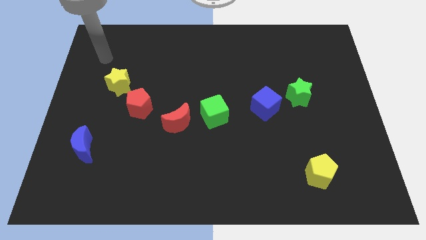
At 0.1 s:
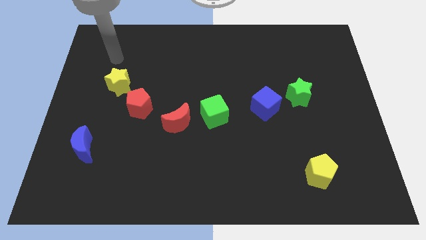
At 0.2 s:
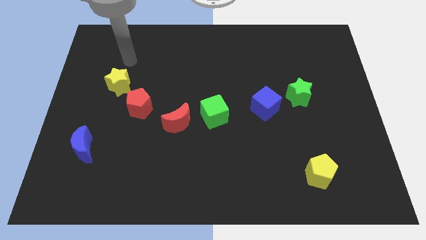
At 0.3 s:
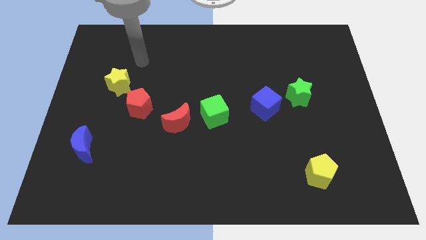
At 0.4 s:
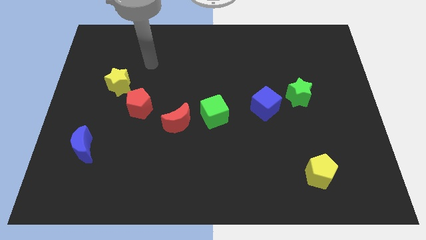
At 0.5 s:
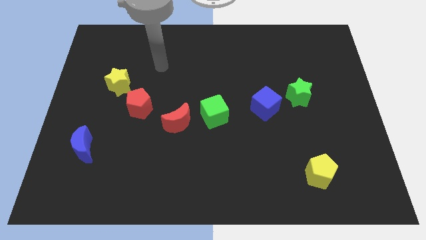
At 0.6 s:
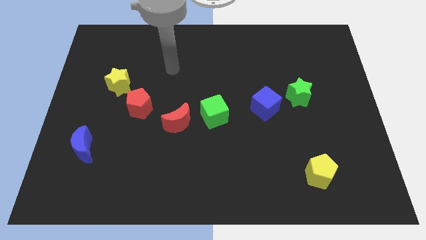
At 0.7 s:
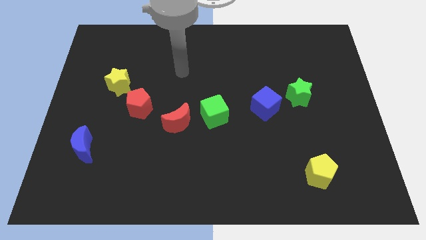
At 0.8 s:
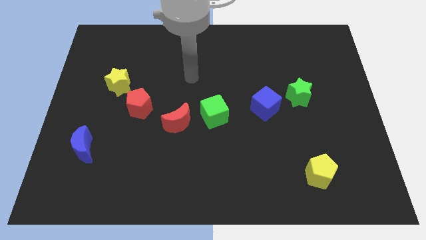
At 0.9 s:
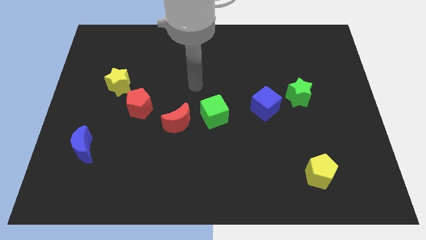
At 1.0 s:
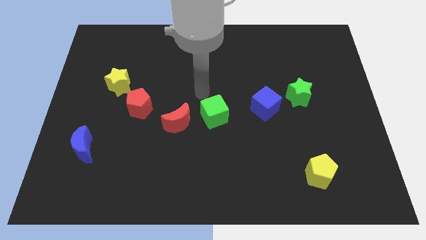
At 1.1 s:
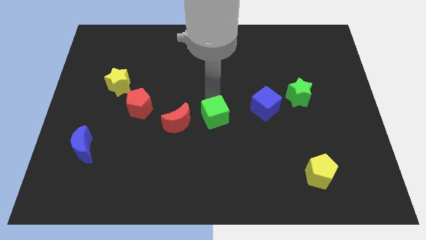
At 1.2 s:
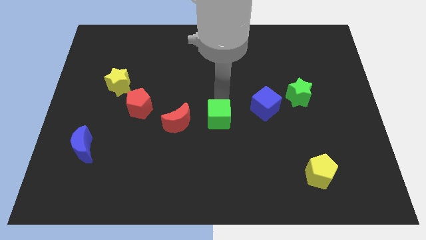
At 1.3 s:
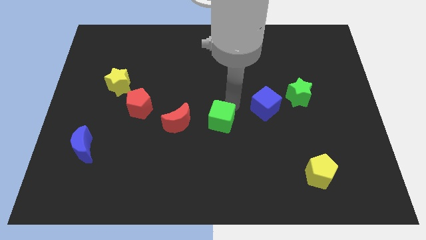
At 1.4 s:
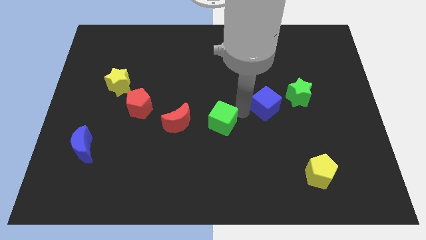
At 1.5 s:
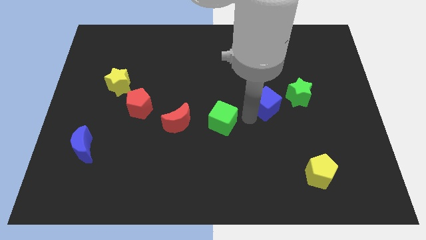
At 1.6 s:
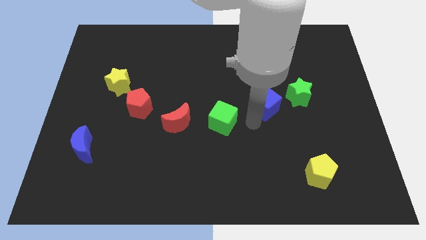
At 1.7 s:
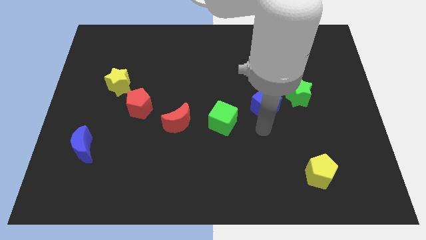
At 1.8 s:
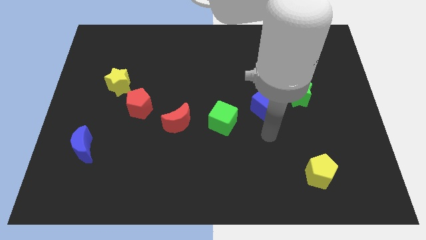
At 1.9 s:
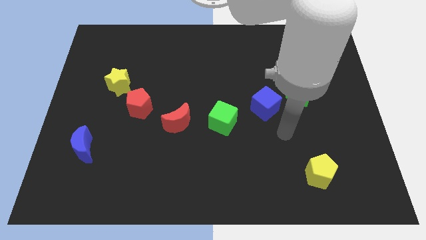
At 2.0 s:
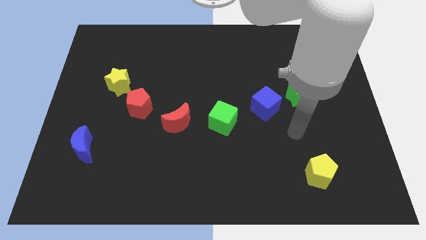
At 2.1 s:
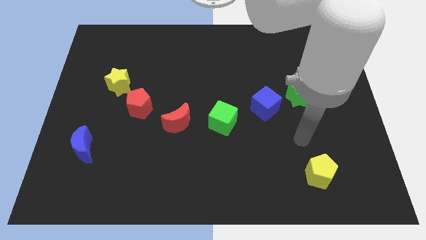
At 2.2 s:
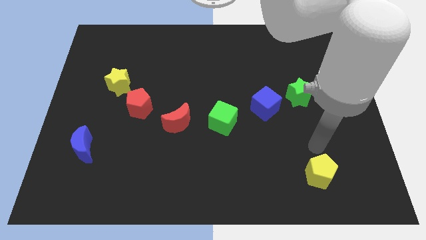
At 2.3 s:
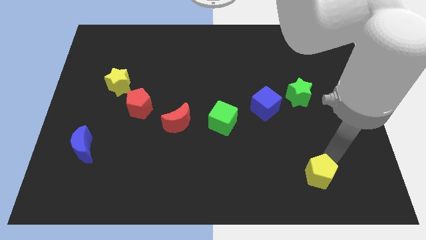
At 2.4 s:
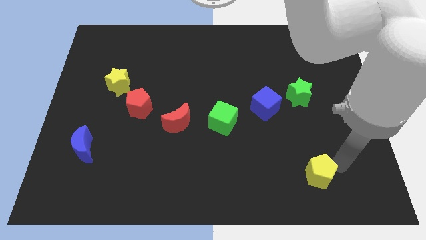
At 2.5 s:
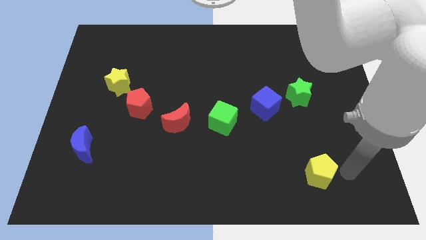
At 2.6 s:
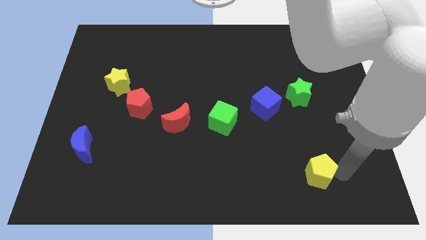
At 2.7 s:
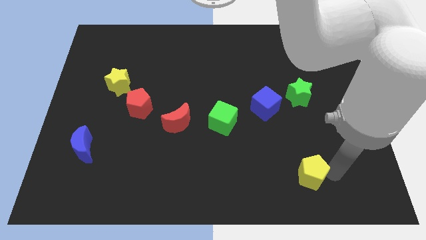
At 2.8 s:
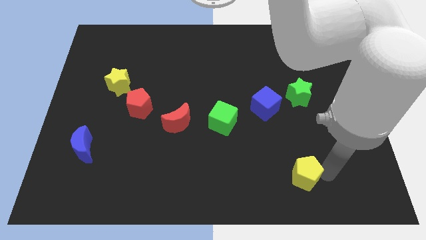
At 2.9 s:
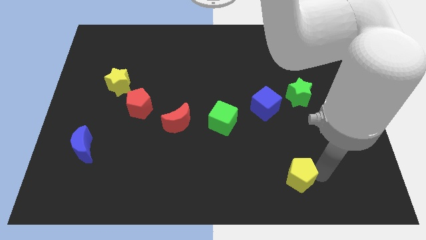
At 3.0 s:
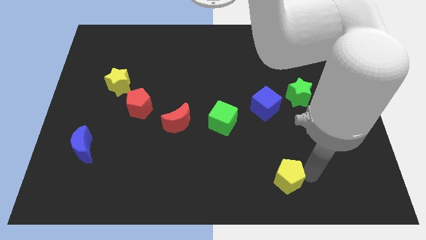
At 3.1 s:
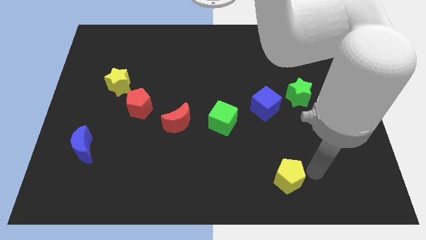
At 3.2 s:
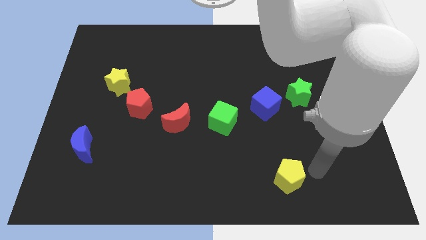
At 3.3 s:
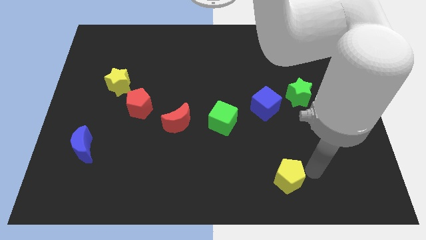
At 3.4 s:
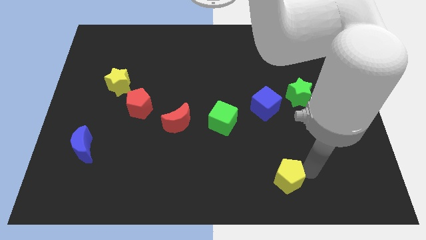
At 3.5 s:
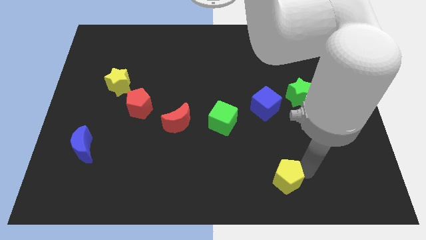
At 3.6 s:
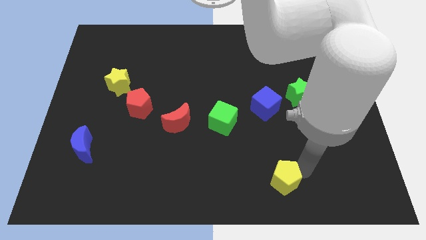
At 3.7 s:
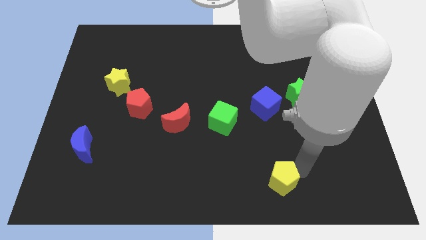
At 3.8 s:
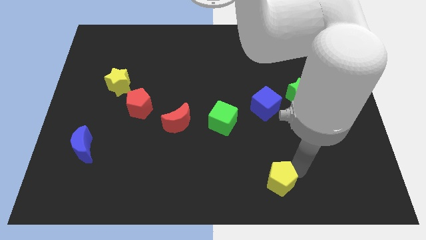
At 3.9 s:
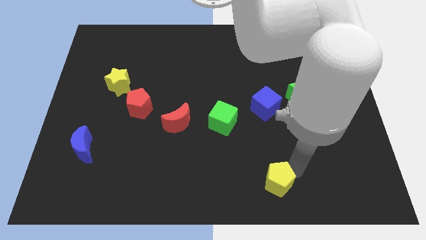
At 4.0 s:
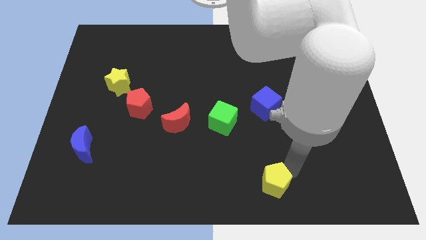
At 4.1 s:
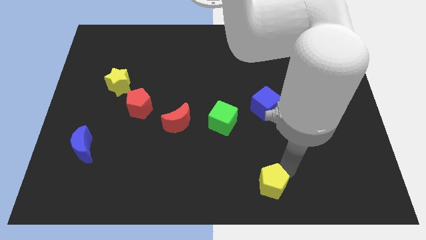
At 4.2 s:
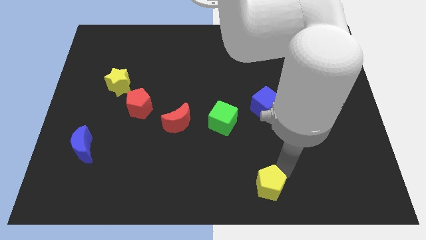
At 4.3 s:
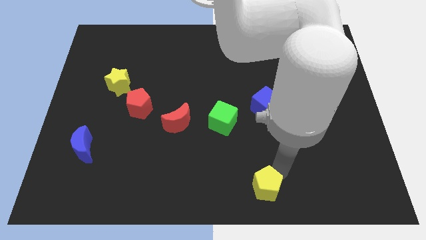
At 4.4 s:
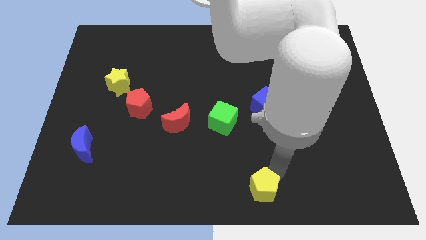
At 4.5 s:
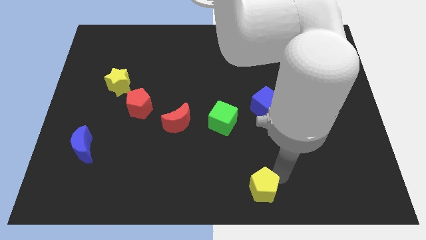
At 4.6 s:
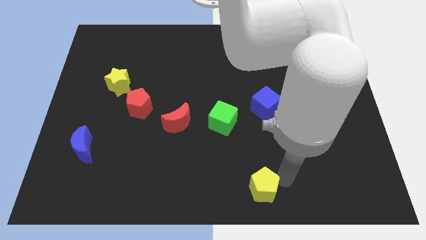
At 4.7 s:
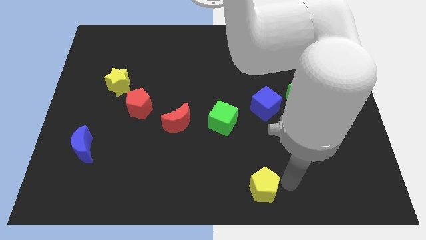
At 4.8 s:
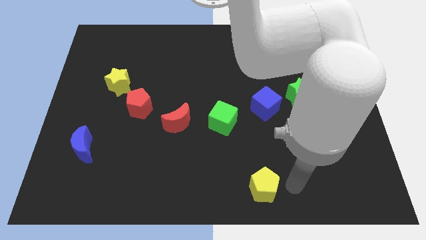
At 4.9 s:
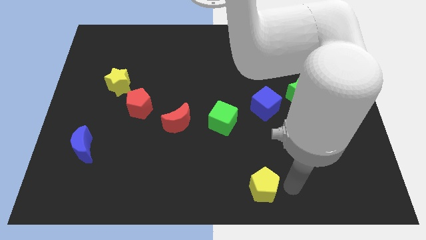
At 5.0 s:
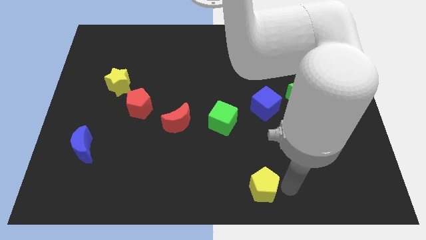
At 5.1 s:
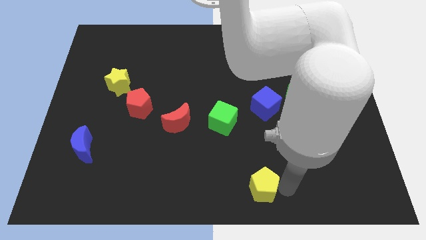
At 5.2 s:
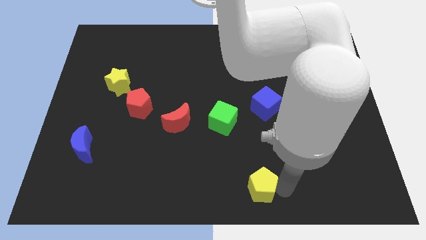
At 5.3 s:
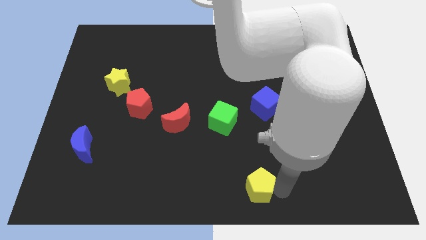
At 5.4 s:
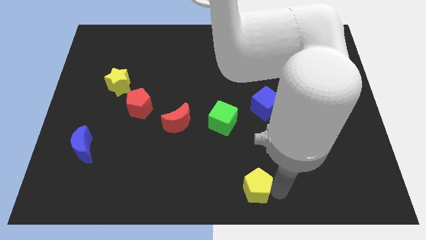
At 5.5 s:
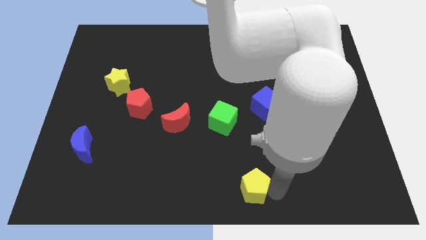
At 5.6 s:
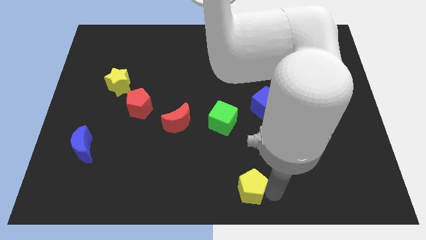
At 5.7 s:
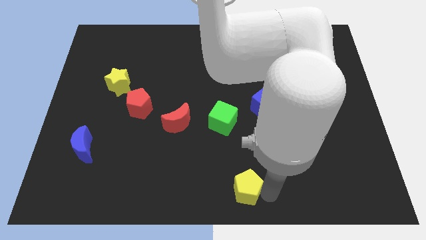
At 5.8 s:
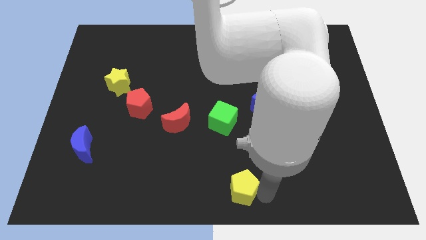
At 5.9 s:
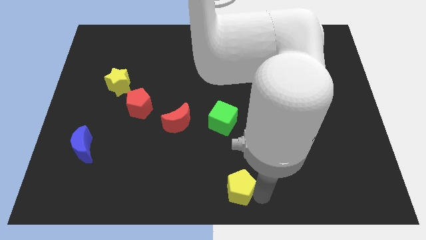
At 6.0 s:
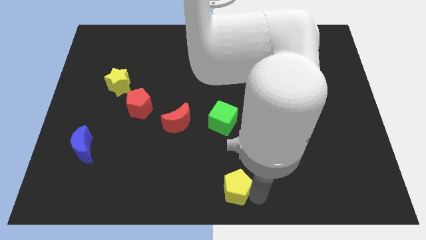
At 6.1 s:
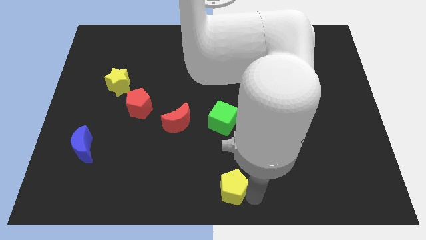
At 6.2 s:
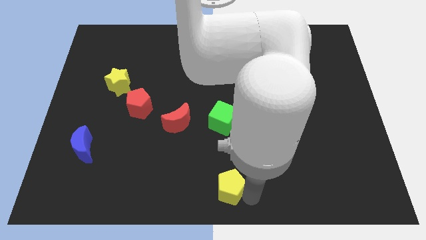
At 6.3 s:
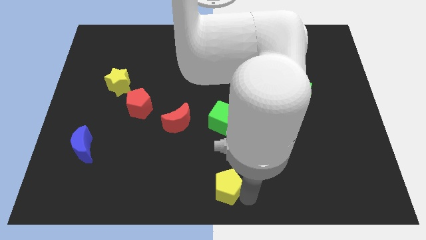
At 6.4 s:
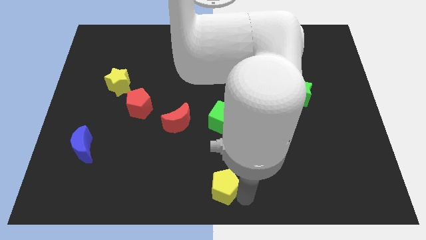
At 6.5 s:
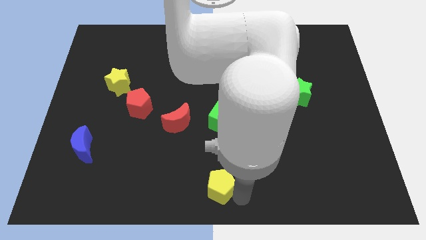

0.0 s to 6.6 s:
push the yellow pentagon left

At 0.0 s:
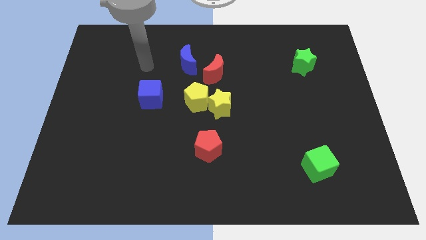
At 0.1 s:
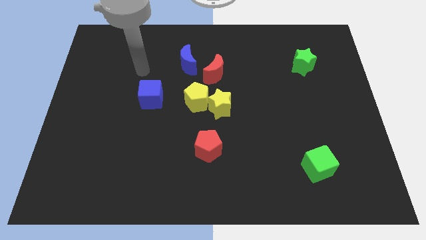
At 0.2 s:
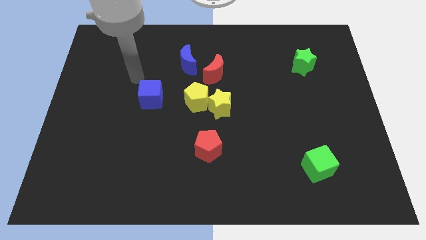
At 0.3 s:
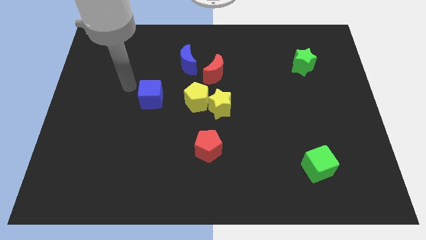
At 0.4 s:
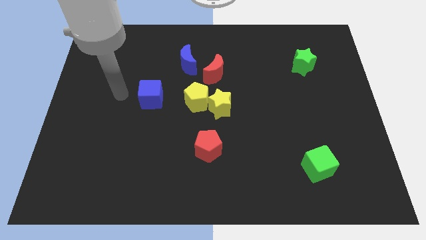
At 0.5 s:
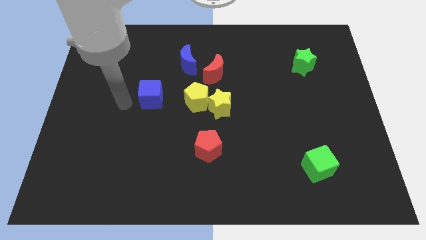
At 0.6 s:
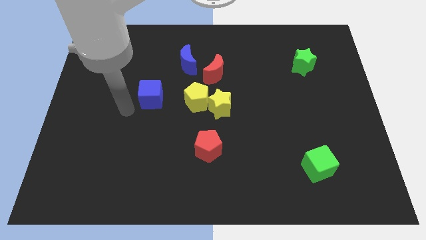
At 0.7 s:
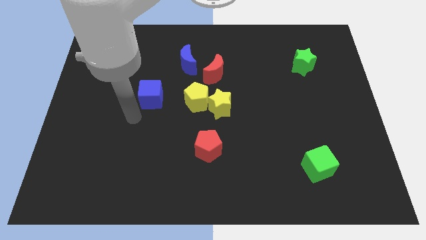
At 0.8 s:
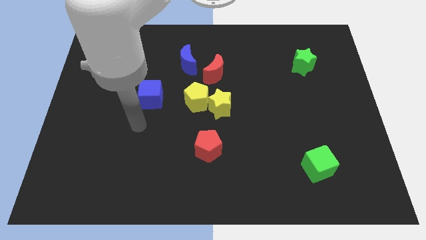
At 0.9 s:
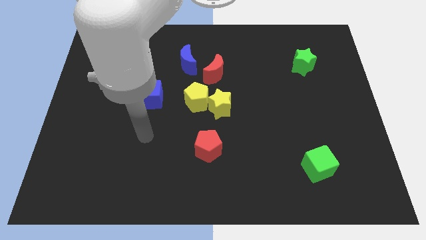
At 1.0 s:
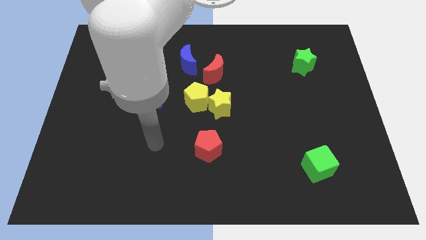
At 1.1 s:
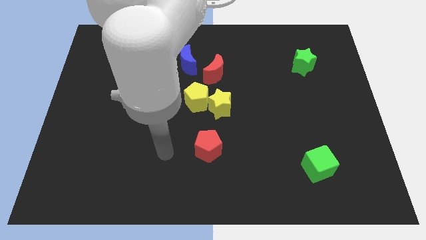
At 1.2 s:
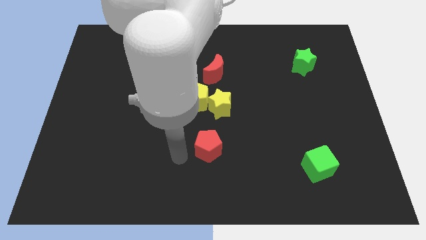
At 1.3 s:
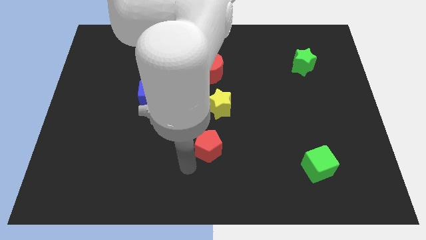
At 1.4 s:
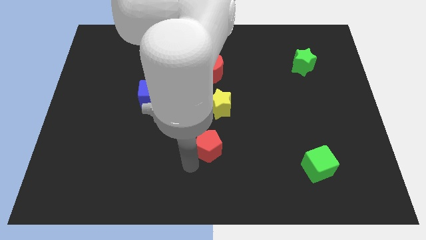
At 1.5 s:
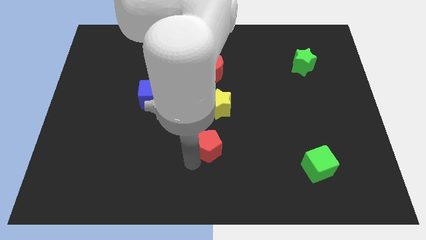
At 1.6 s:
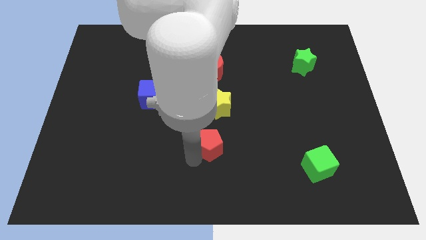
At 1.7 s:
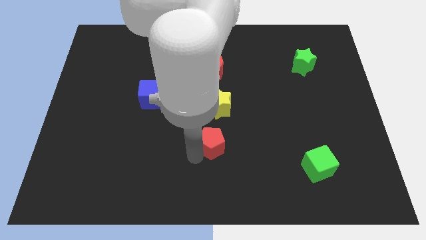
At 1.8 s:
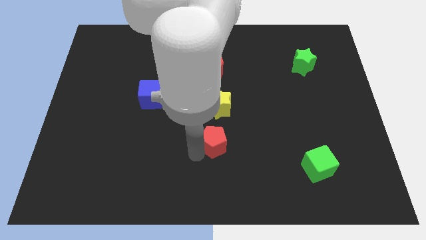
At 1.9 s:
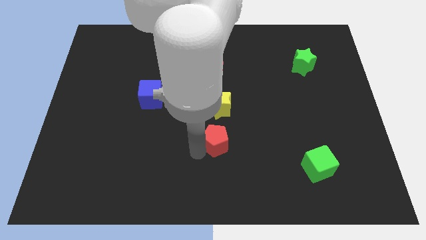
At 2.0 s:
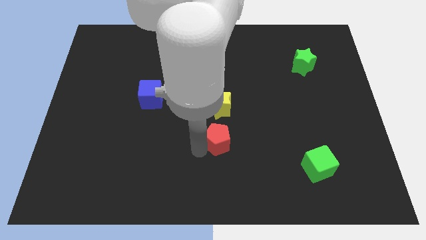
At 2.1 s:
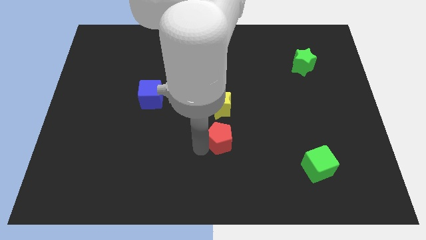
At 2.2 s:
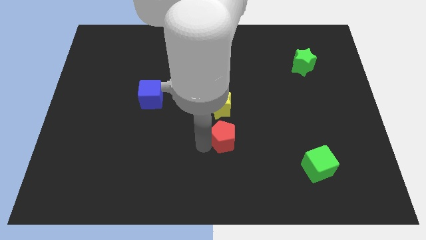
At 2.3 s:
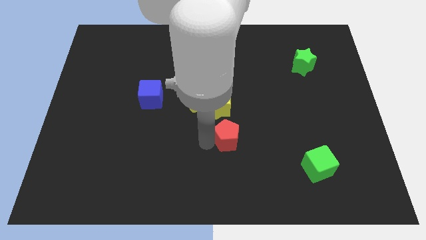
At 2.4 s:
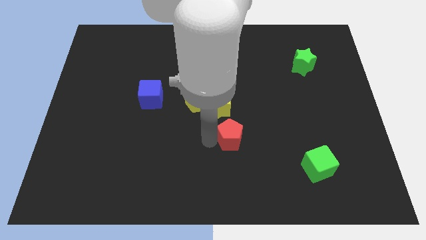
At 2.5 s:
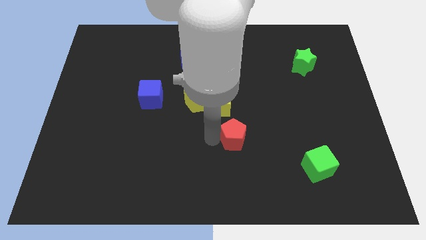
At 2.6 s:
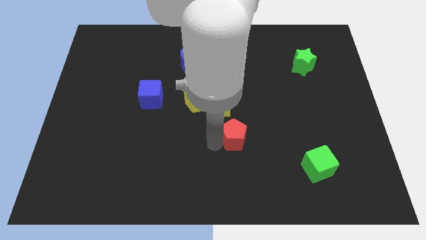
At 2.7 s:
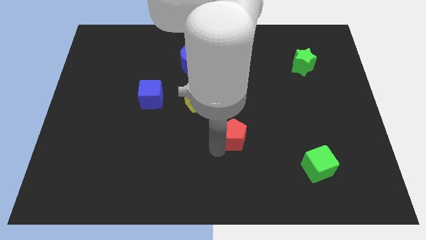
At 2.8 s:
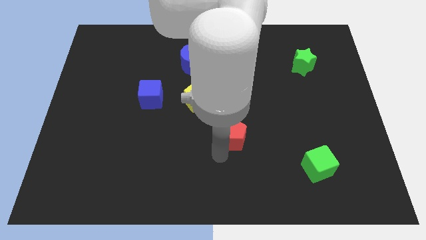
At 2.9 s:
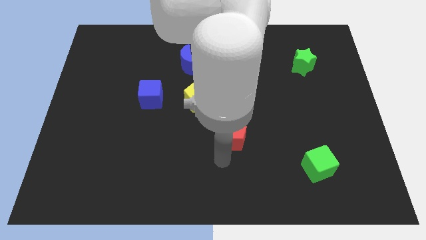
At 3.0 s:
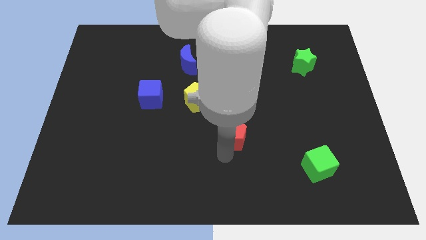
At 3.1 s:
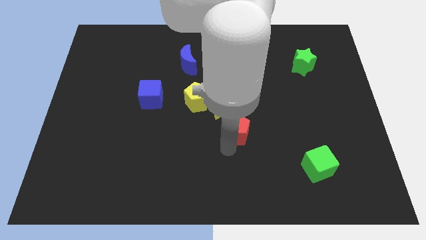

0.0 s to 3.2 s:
push the red pentagon up and then to the right a little
